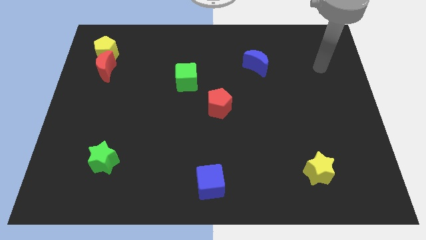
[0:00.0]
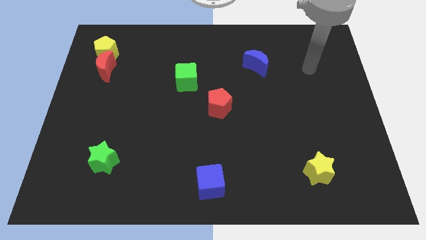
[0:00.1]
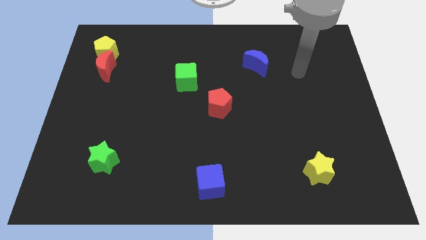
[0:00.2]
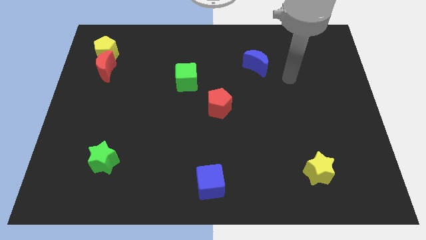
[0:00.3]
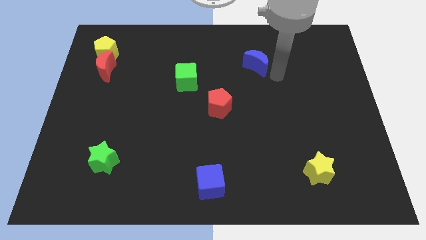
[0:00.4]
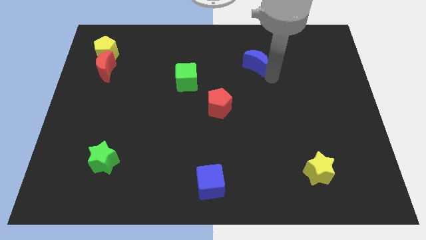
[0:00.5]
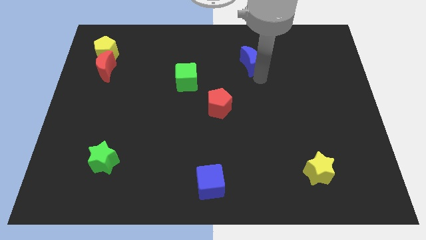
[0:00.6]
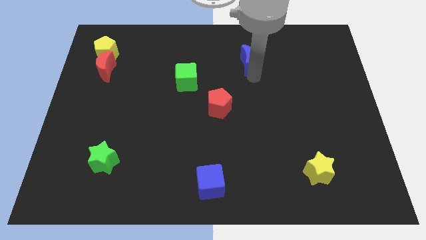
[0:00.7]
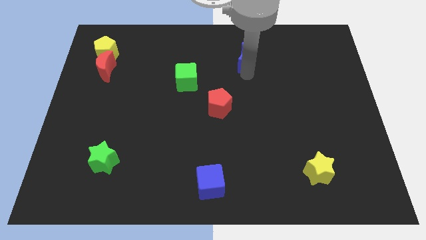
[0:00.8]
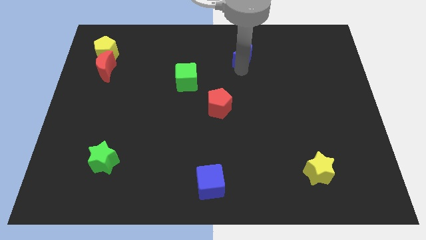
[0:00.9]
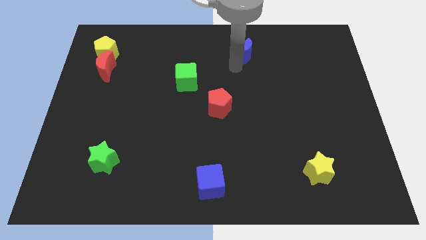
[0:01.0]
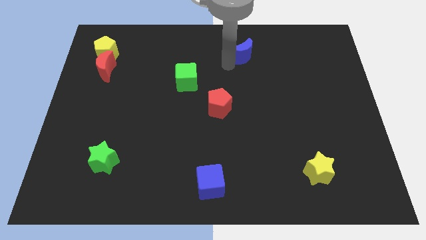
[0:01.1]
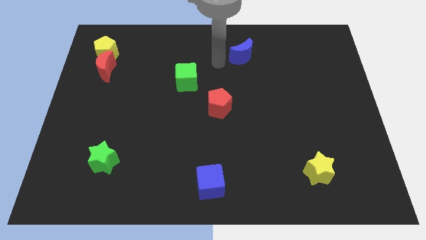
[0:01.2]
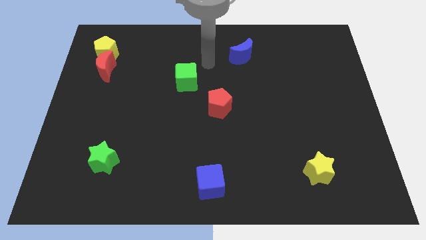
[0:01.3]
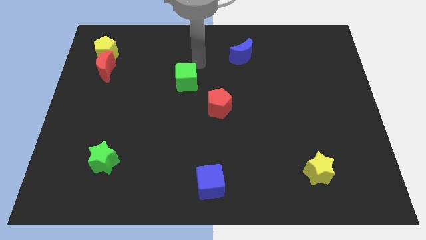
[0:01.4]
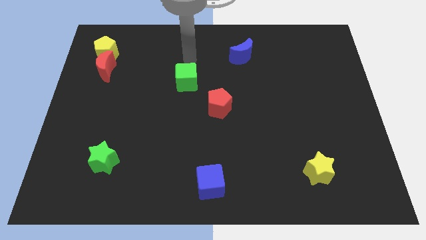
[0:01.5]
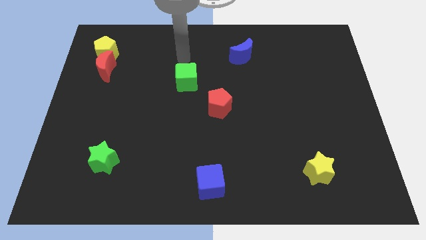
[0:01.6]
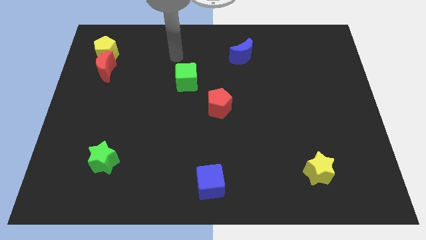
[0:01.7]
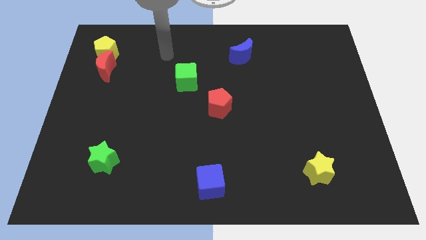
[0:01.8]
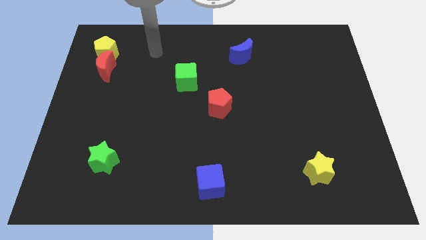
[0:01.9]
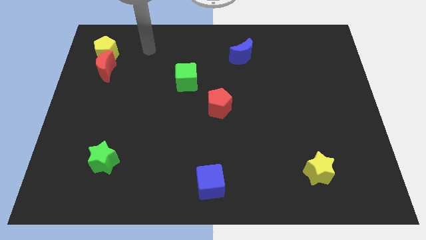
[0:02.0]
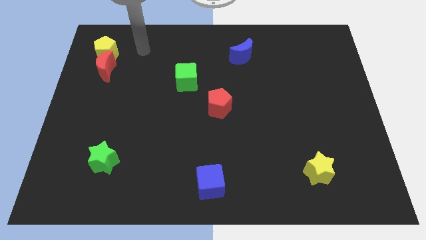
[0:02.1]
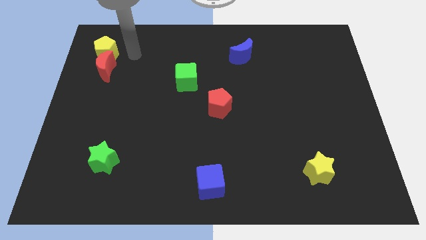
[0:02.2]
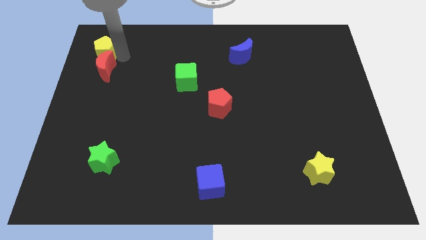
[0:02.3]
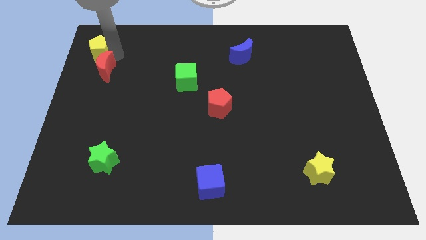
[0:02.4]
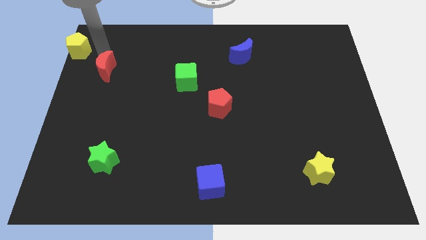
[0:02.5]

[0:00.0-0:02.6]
pull the red moon apart from the yellow pentagon

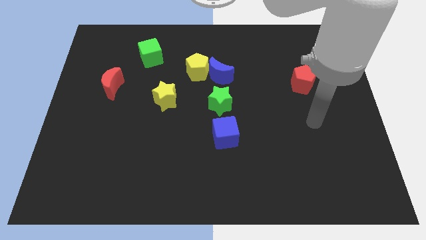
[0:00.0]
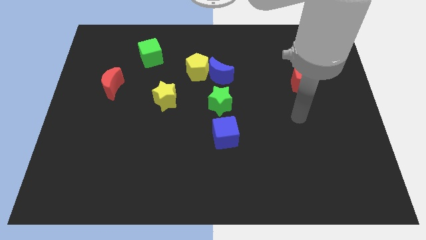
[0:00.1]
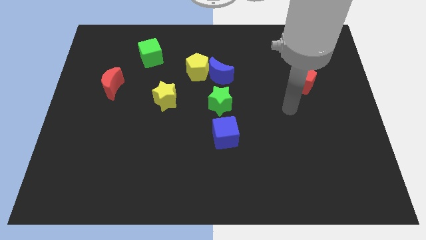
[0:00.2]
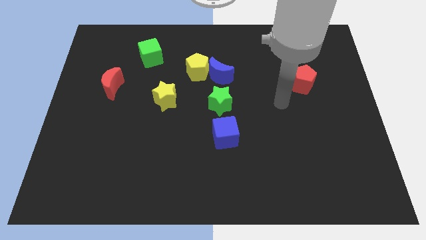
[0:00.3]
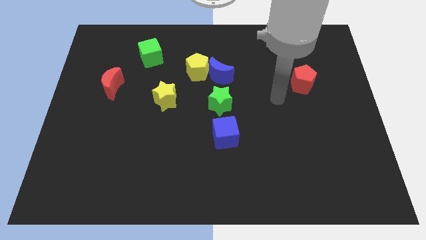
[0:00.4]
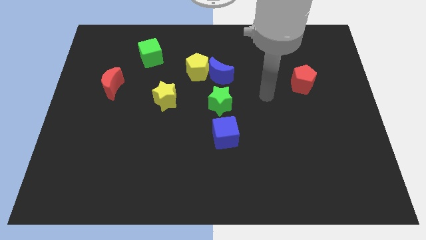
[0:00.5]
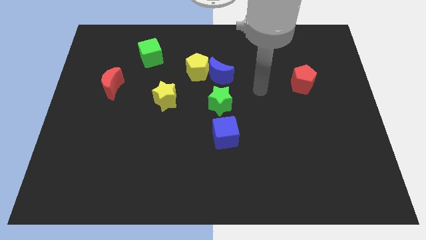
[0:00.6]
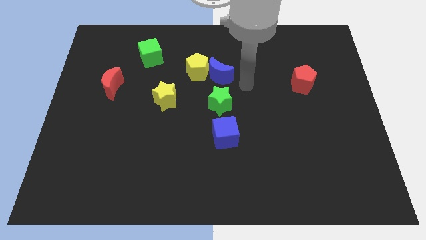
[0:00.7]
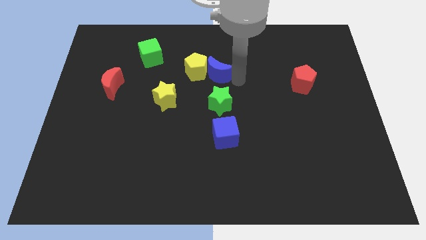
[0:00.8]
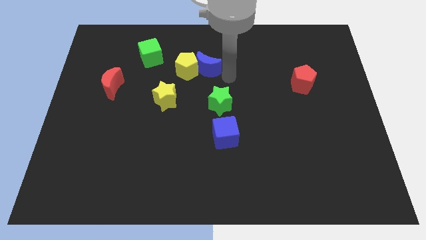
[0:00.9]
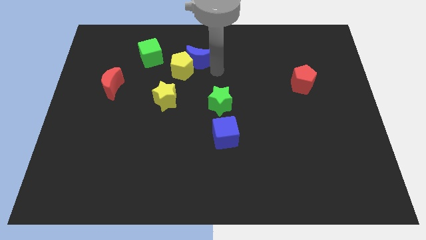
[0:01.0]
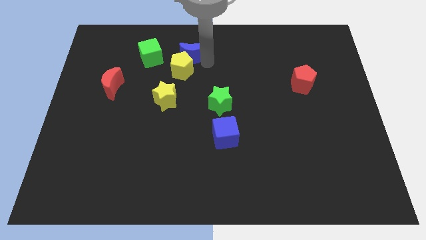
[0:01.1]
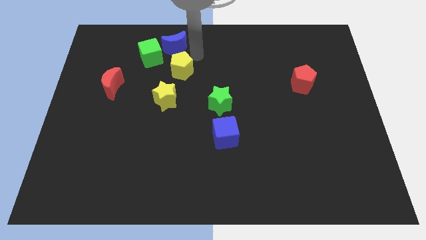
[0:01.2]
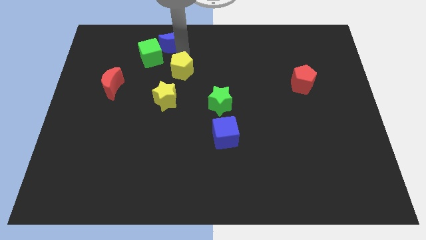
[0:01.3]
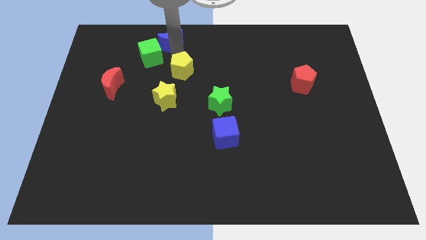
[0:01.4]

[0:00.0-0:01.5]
separate the yellow pentagon from the blue moon

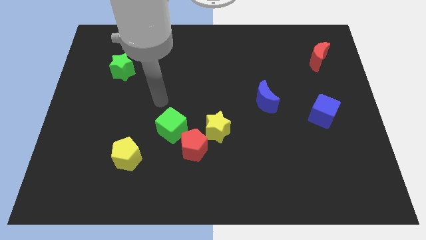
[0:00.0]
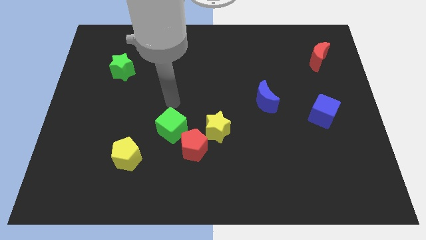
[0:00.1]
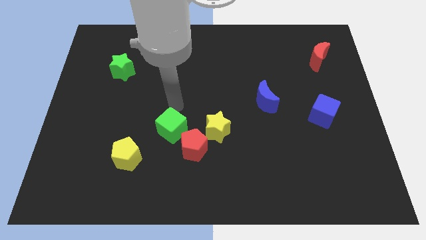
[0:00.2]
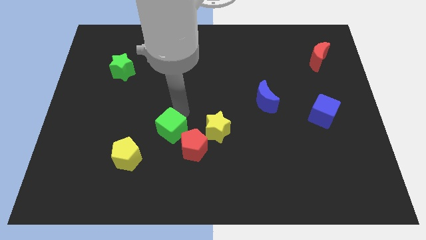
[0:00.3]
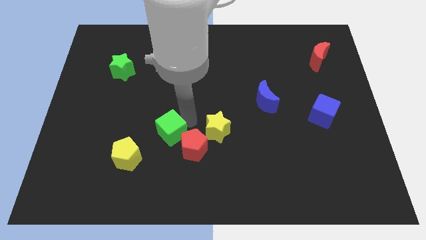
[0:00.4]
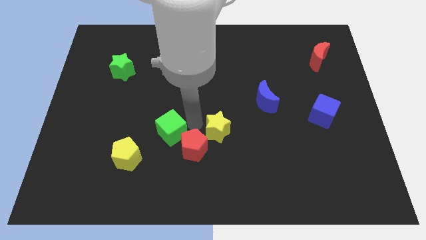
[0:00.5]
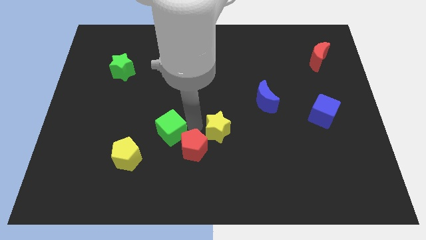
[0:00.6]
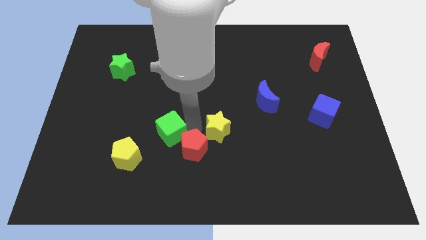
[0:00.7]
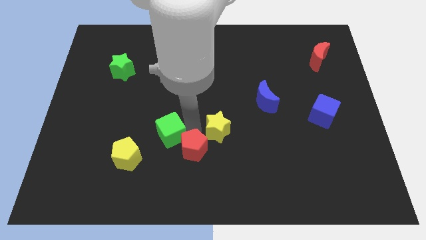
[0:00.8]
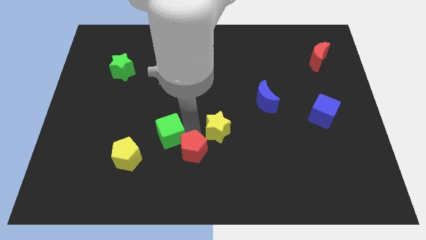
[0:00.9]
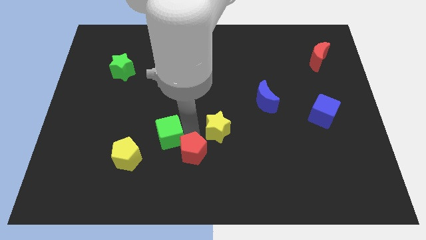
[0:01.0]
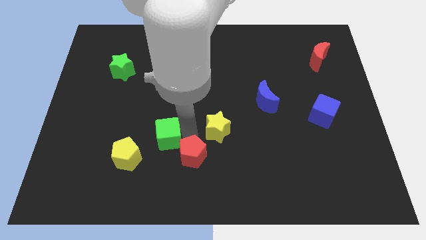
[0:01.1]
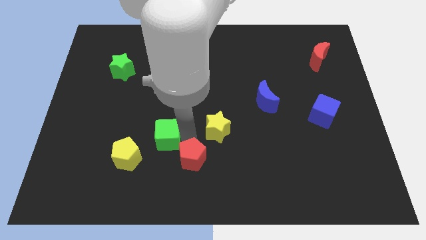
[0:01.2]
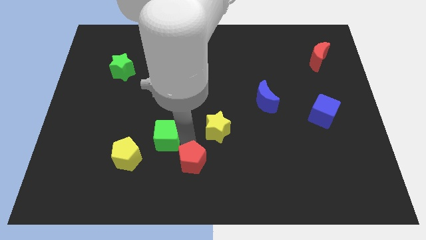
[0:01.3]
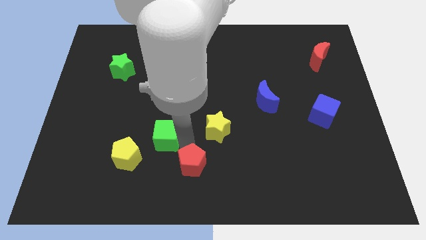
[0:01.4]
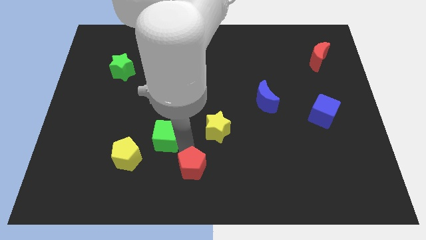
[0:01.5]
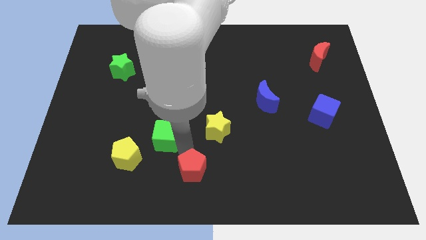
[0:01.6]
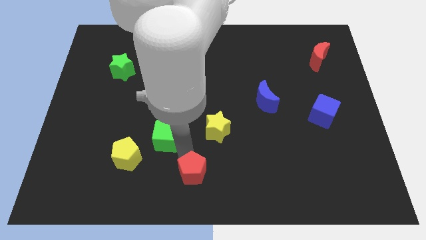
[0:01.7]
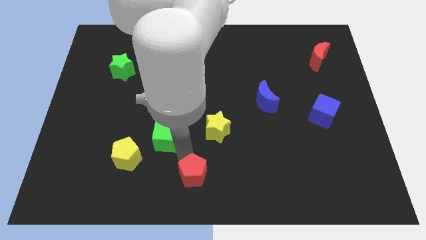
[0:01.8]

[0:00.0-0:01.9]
move the red pentagon away from the yellow star and green cube

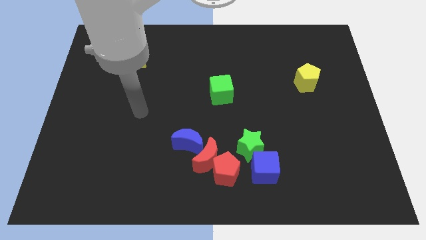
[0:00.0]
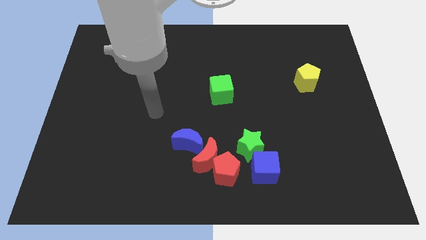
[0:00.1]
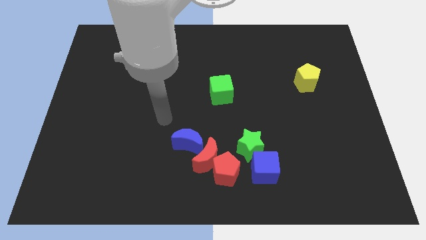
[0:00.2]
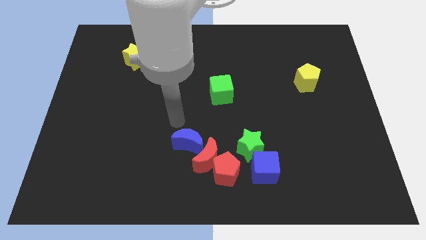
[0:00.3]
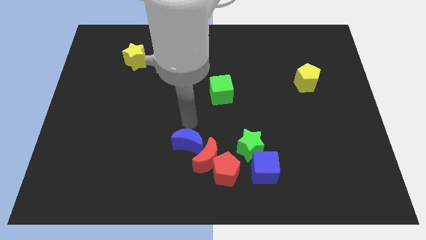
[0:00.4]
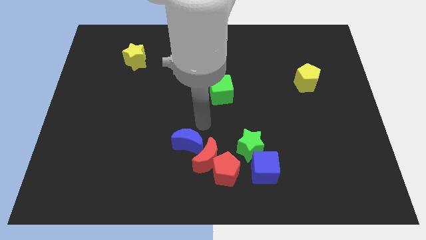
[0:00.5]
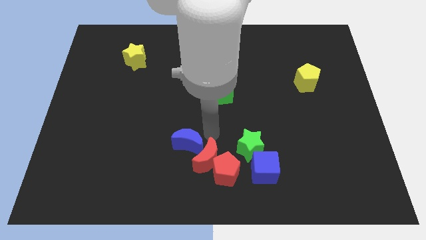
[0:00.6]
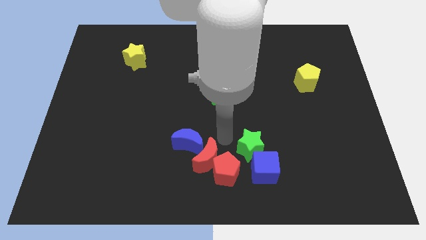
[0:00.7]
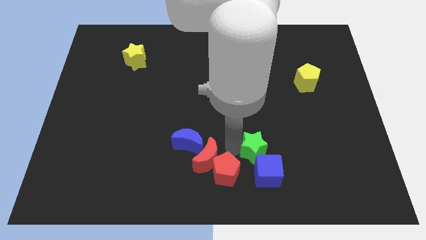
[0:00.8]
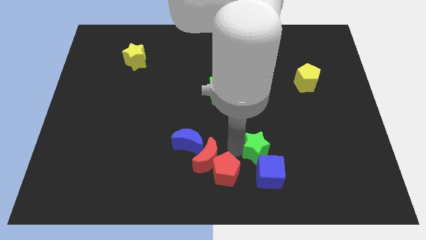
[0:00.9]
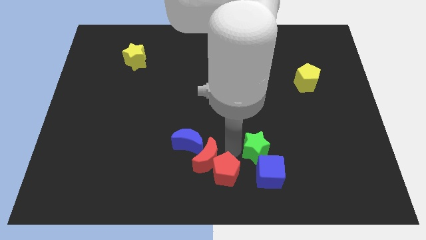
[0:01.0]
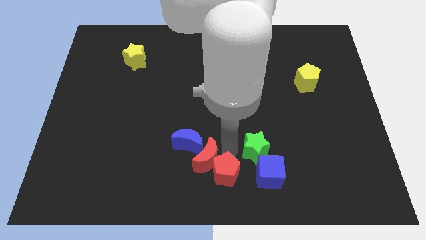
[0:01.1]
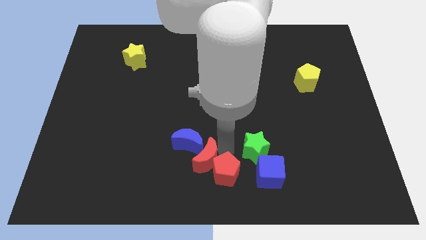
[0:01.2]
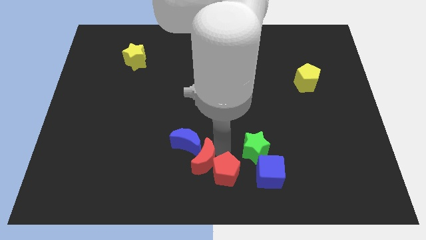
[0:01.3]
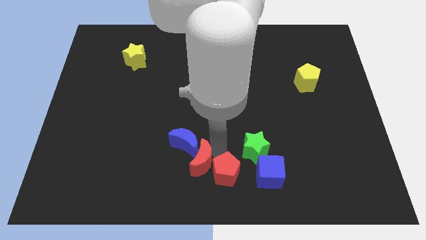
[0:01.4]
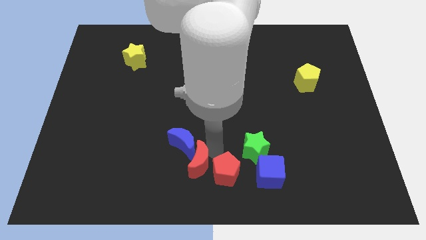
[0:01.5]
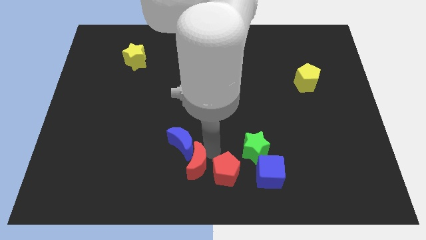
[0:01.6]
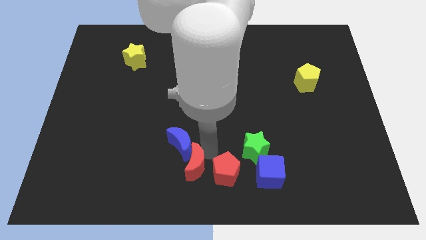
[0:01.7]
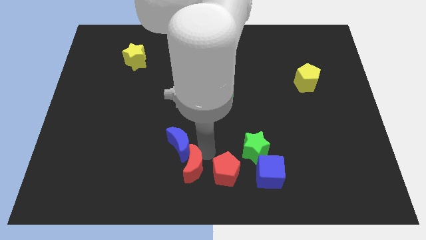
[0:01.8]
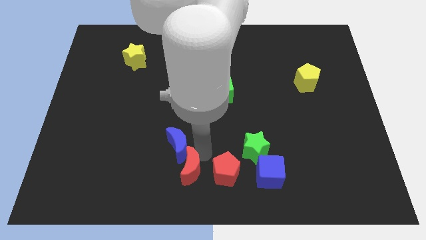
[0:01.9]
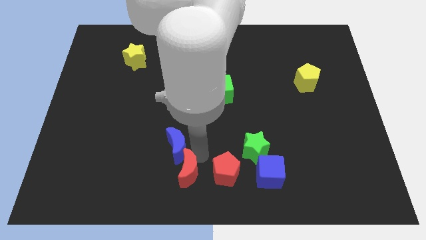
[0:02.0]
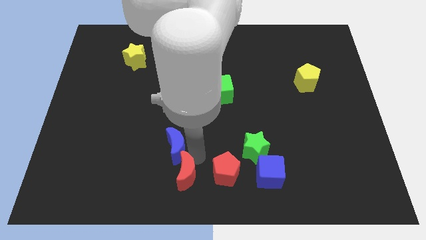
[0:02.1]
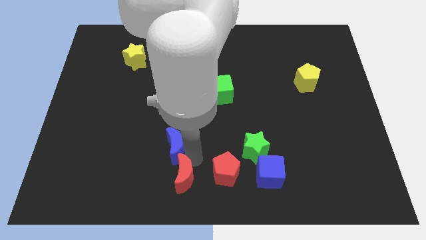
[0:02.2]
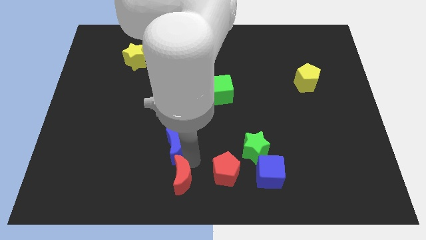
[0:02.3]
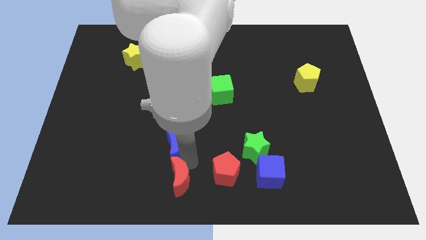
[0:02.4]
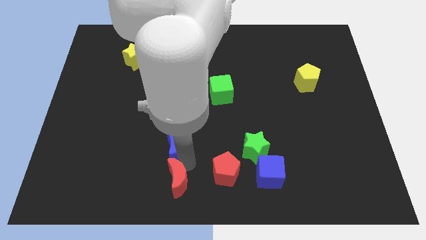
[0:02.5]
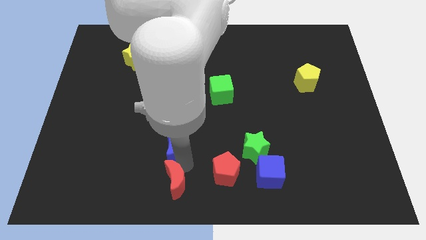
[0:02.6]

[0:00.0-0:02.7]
separate the red moon from the clump

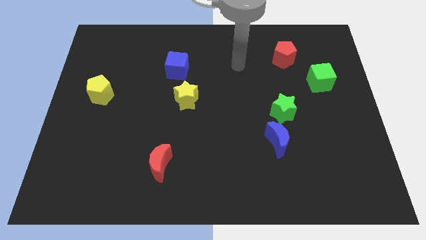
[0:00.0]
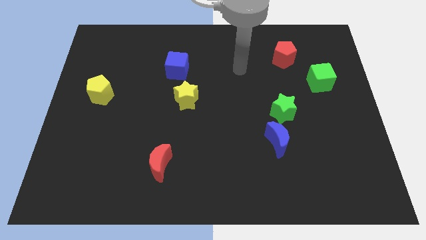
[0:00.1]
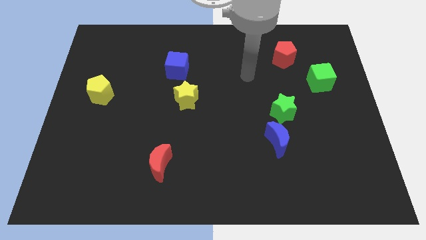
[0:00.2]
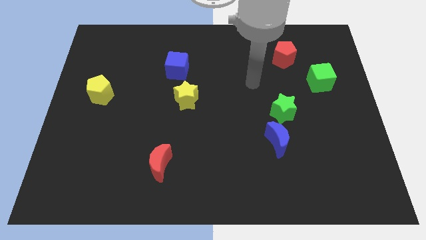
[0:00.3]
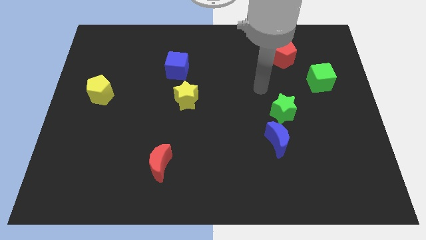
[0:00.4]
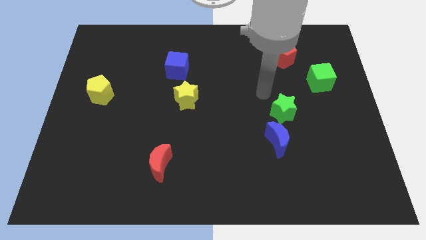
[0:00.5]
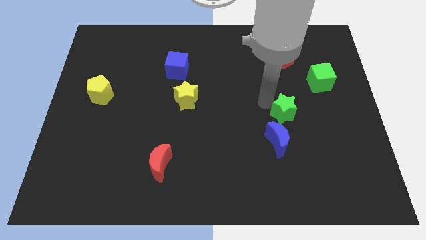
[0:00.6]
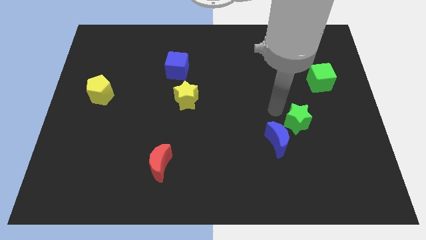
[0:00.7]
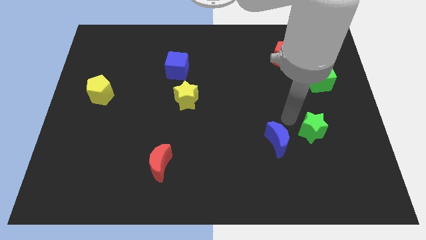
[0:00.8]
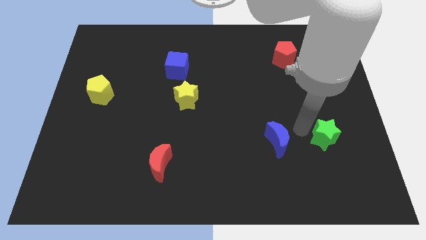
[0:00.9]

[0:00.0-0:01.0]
separate the blue moon from the green star
